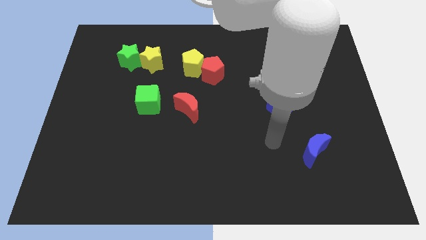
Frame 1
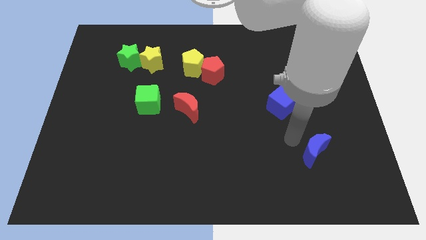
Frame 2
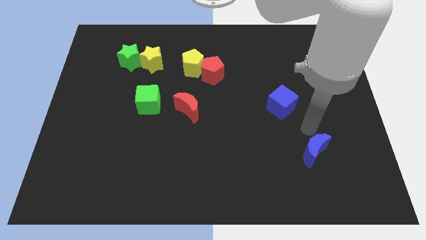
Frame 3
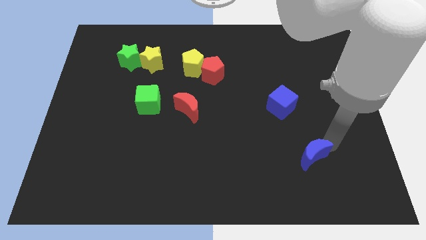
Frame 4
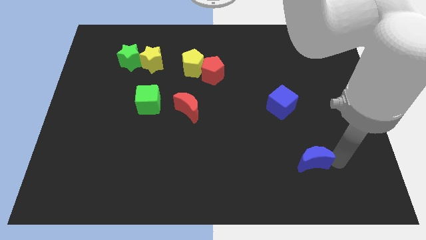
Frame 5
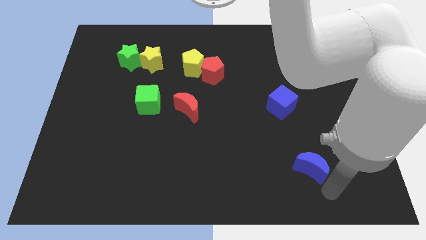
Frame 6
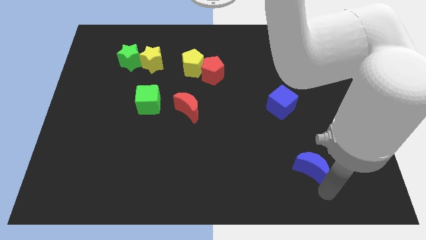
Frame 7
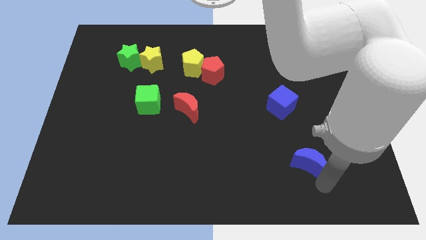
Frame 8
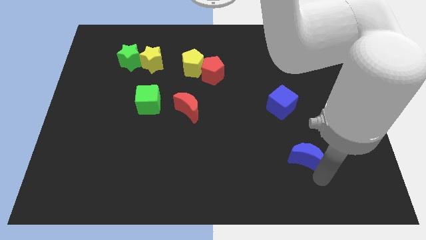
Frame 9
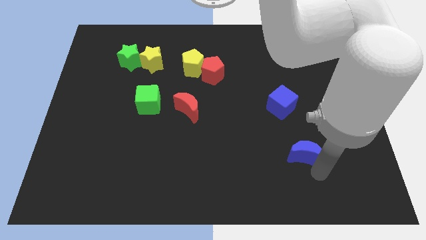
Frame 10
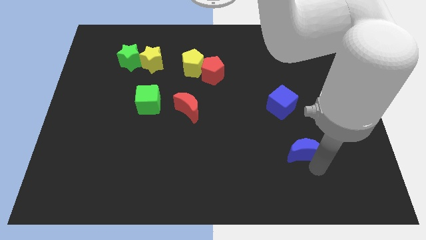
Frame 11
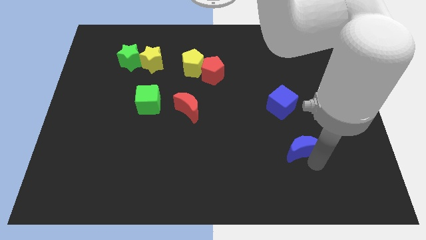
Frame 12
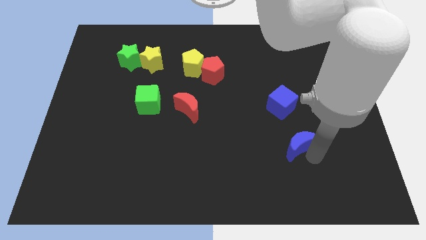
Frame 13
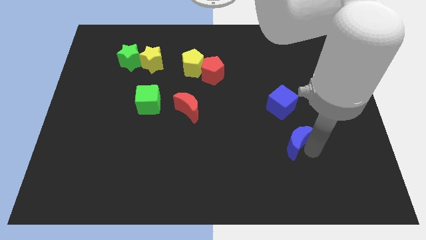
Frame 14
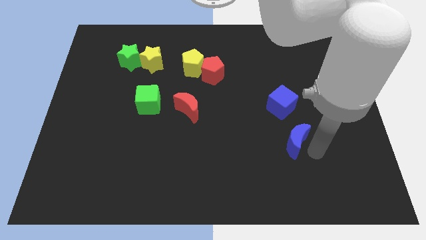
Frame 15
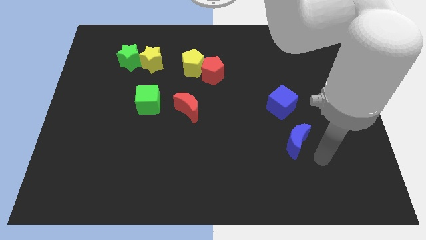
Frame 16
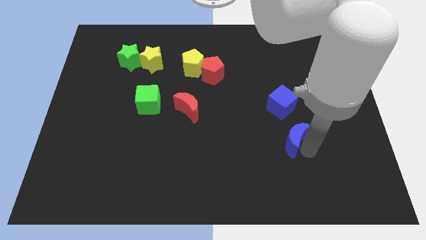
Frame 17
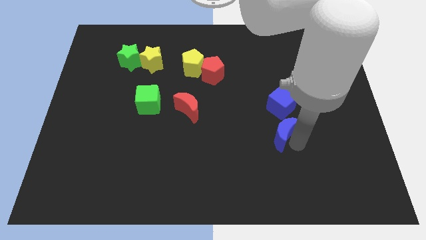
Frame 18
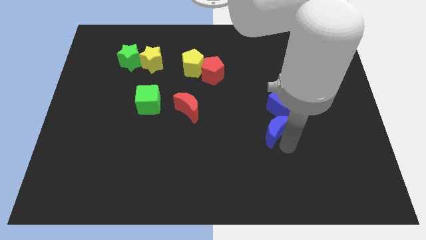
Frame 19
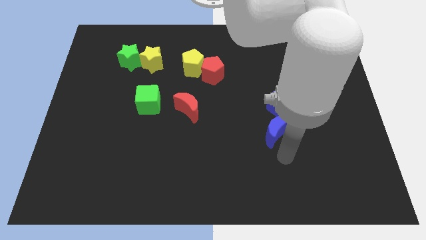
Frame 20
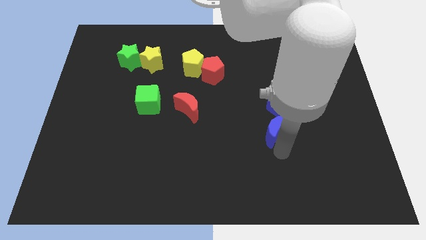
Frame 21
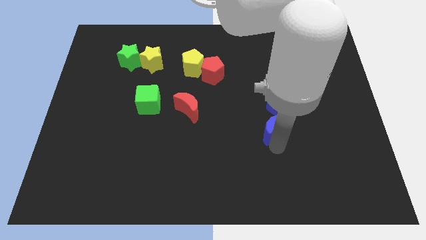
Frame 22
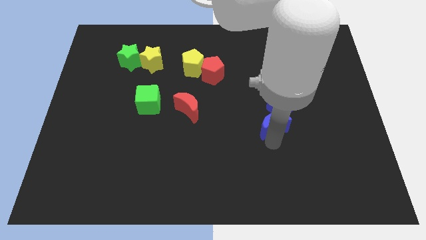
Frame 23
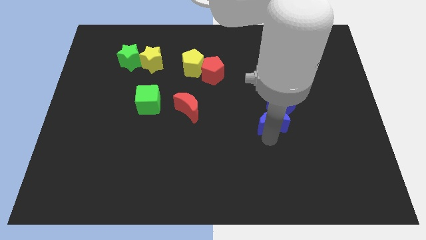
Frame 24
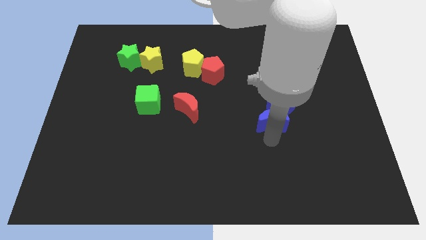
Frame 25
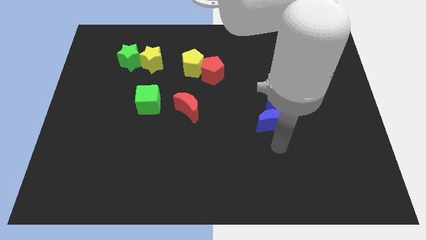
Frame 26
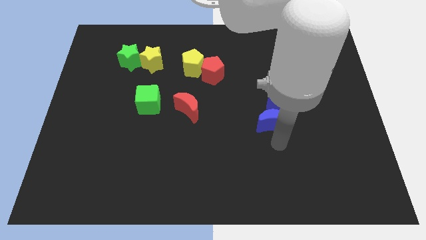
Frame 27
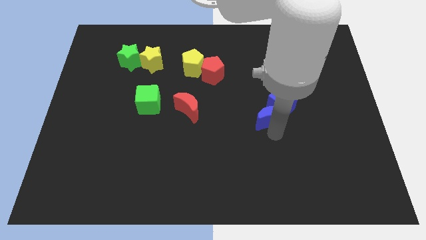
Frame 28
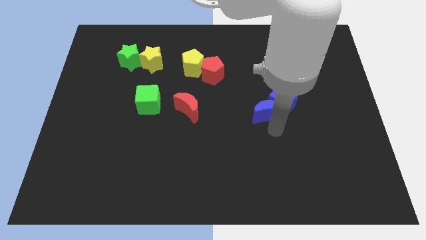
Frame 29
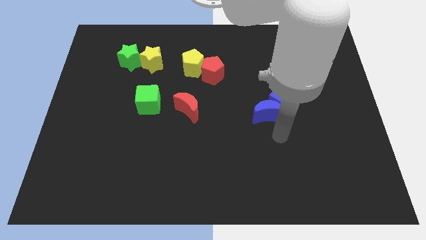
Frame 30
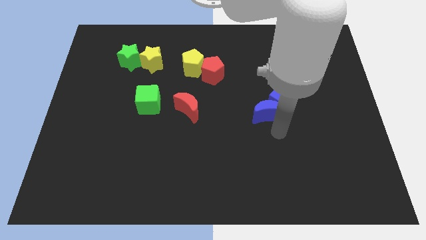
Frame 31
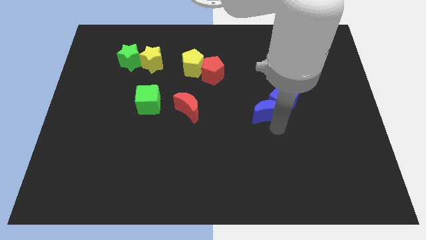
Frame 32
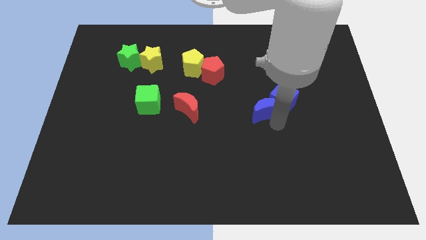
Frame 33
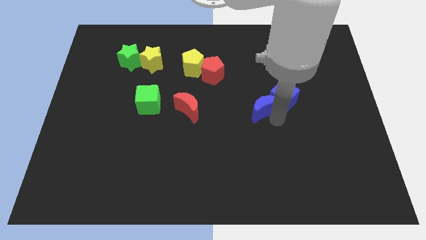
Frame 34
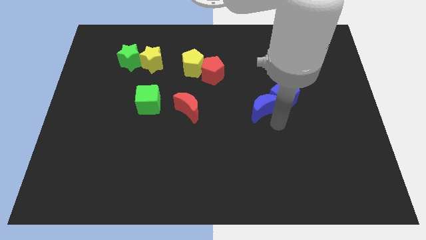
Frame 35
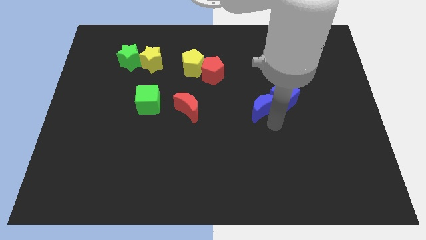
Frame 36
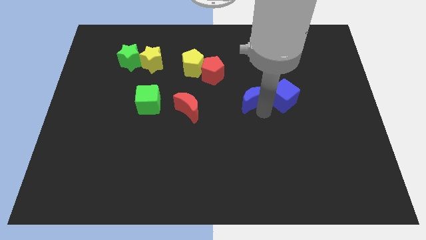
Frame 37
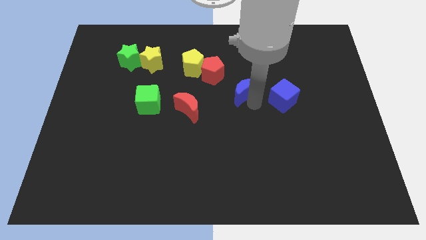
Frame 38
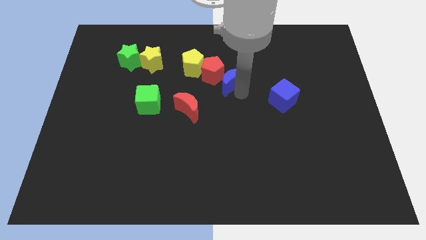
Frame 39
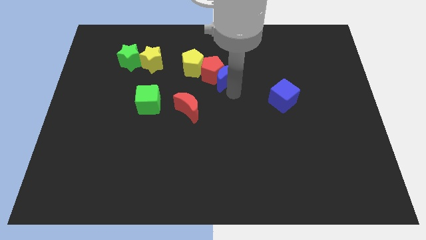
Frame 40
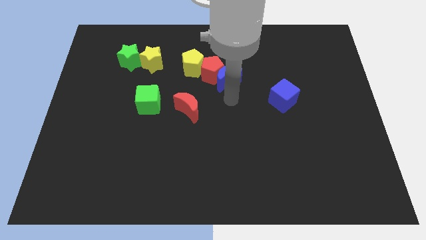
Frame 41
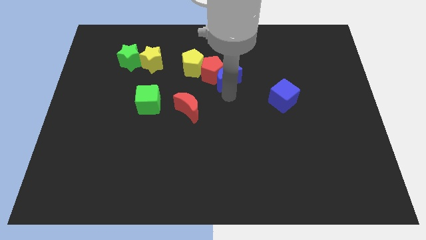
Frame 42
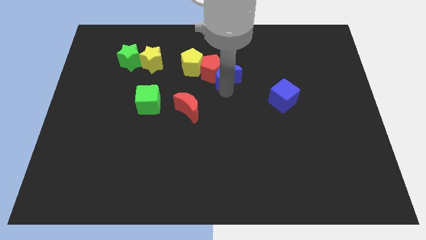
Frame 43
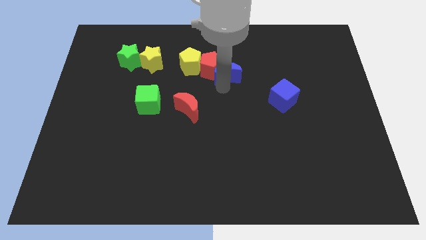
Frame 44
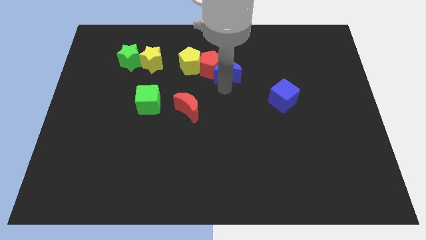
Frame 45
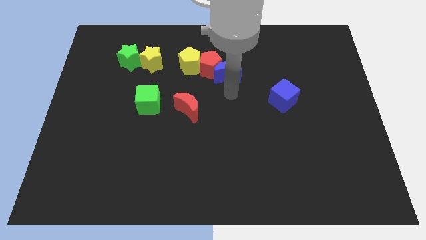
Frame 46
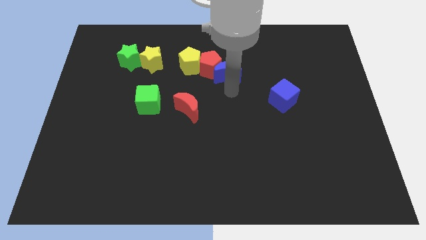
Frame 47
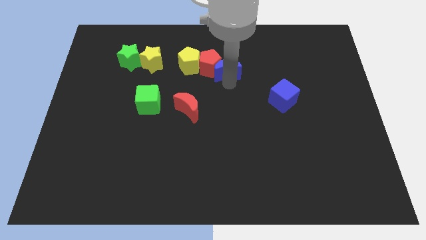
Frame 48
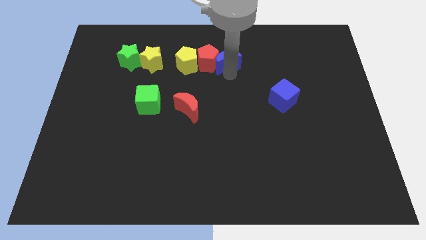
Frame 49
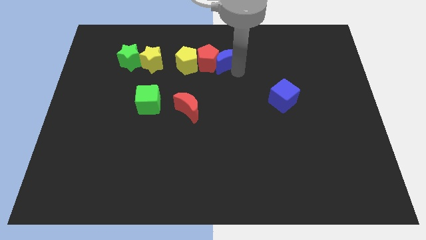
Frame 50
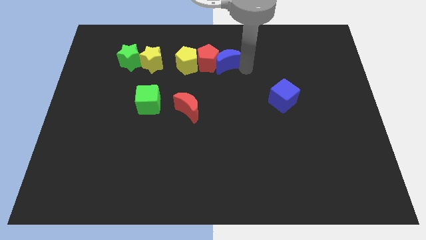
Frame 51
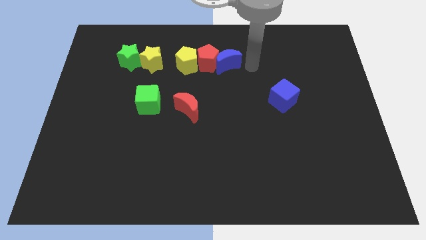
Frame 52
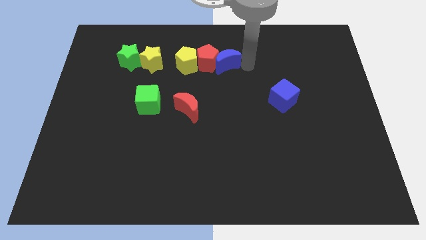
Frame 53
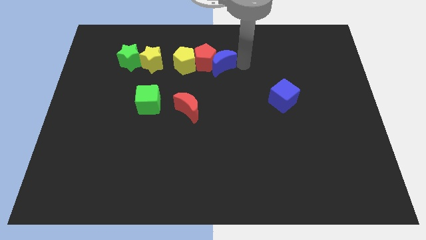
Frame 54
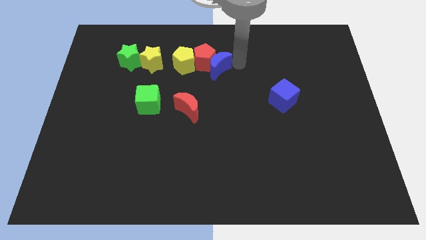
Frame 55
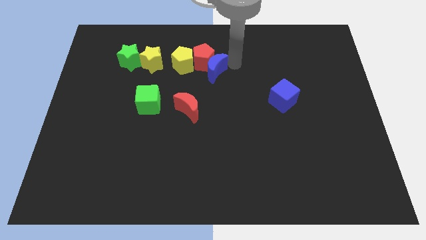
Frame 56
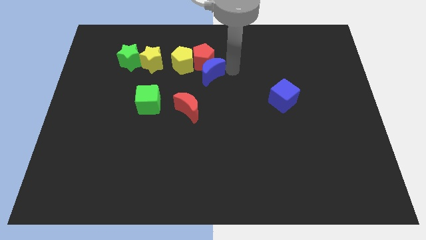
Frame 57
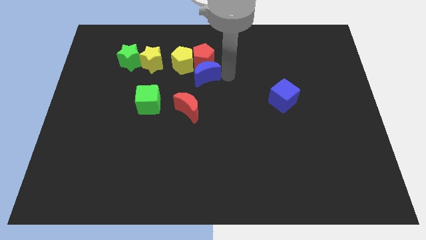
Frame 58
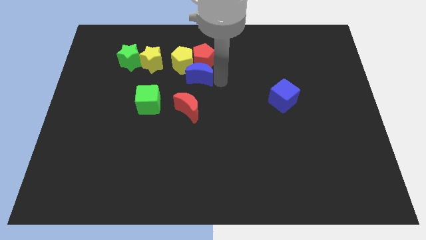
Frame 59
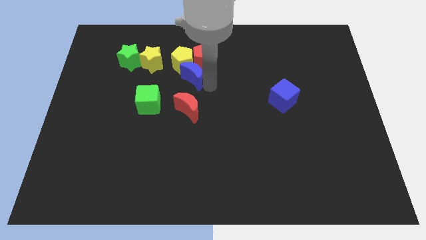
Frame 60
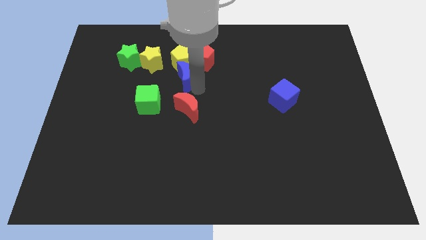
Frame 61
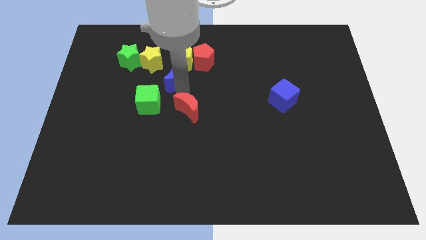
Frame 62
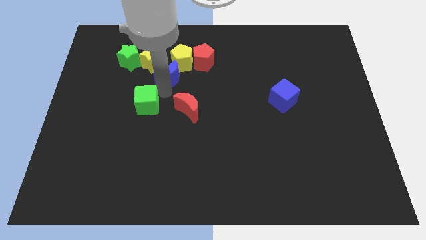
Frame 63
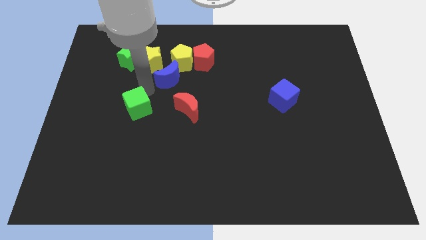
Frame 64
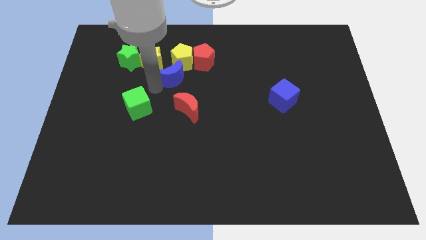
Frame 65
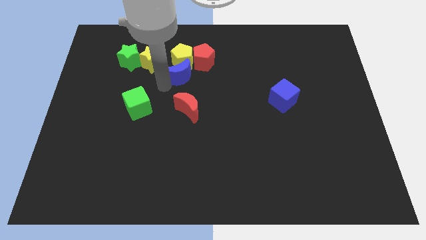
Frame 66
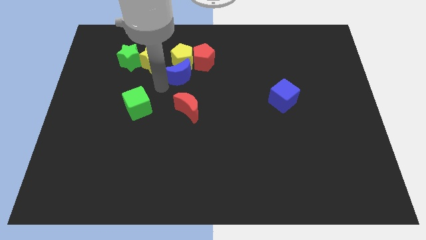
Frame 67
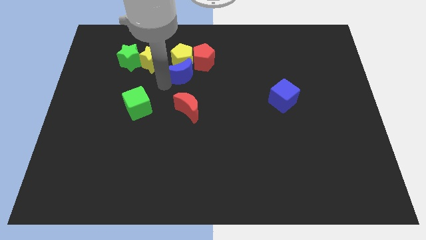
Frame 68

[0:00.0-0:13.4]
slide the blue moon to the right of the yellow star

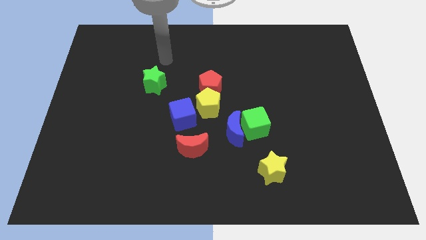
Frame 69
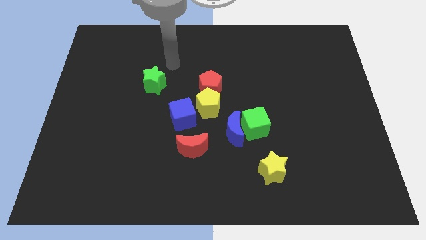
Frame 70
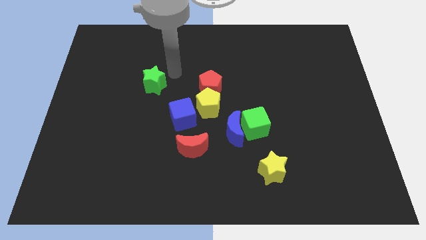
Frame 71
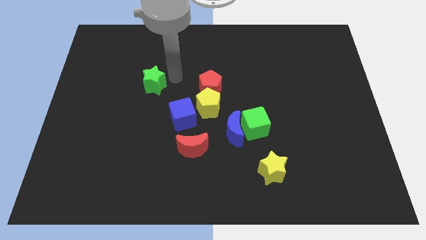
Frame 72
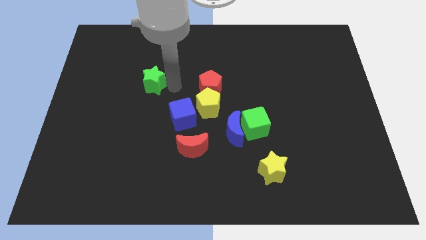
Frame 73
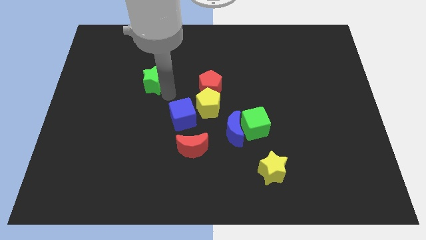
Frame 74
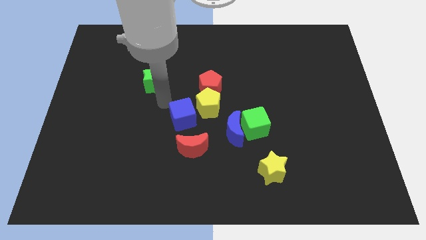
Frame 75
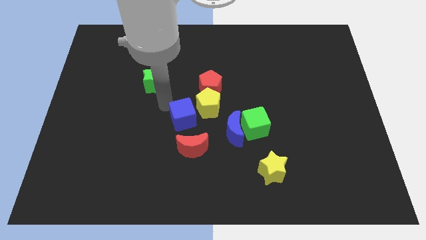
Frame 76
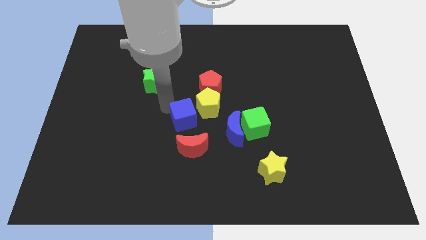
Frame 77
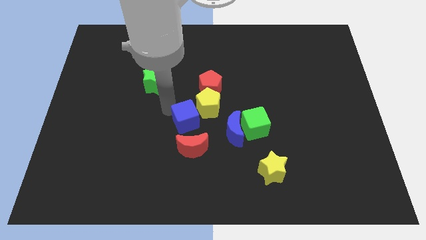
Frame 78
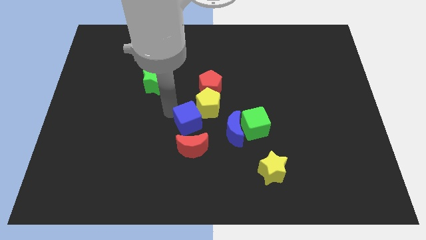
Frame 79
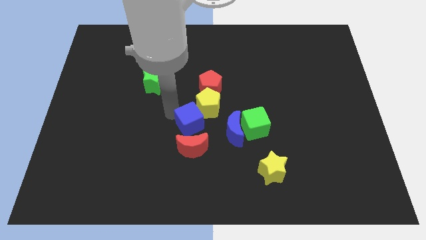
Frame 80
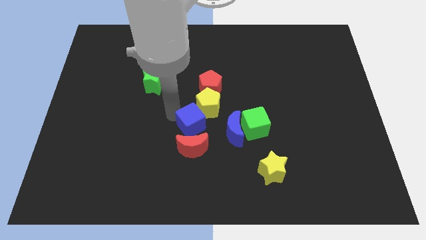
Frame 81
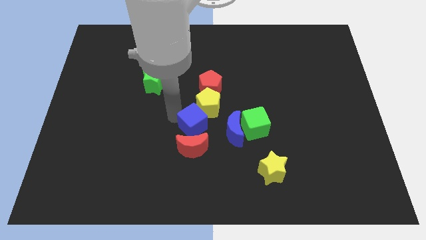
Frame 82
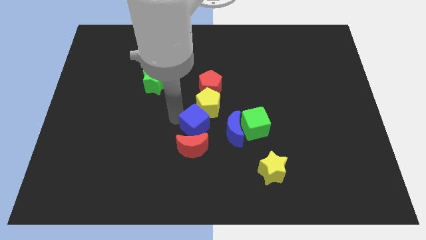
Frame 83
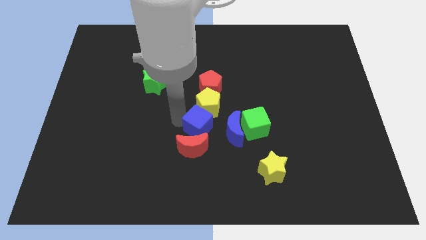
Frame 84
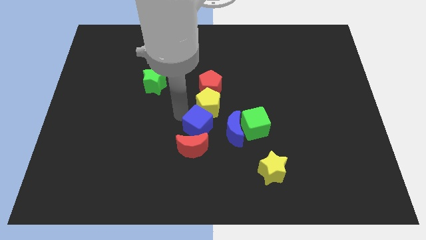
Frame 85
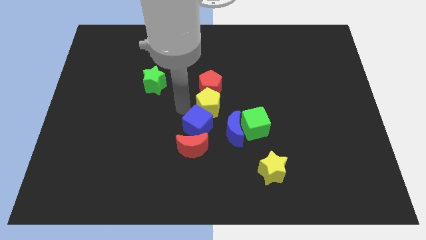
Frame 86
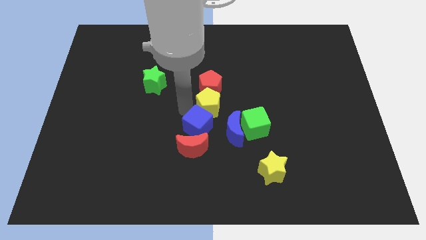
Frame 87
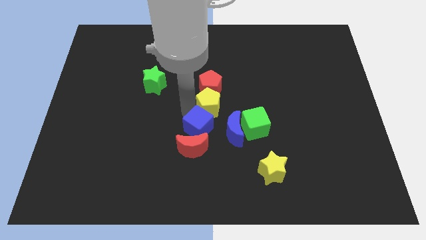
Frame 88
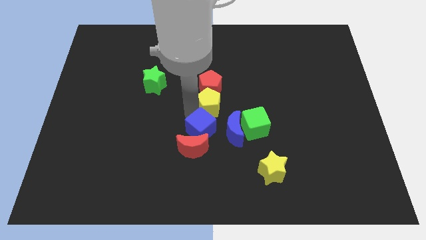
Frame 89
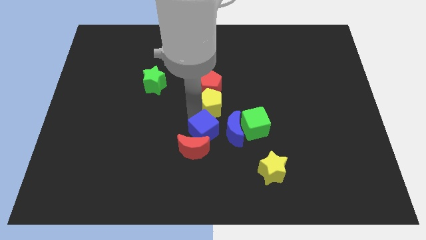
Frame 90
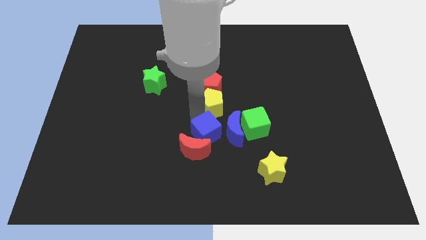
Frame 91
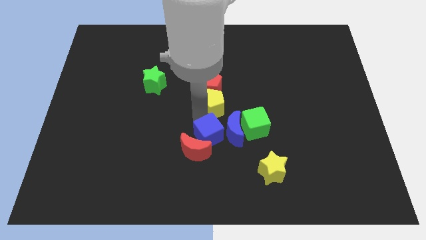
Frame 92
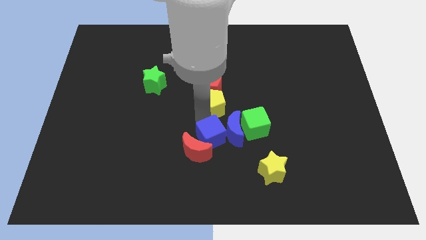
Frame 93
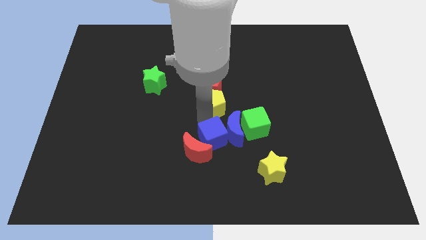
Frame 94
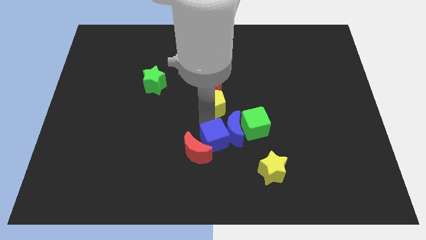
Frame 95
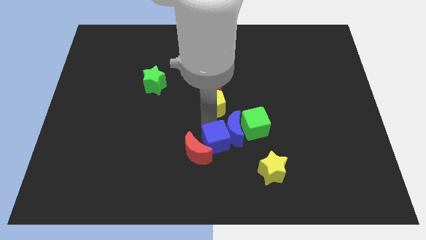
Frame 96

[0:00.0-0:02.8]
slide the blue cube below the blue moon
